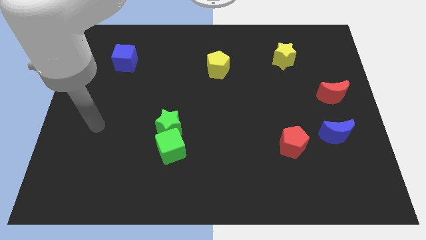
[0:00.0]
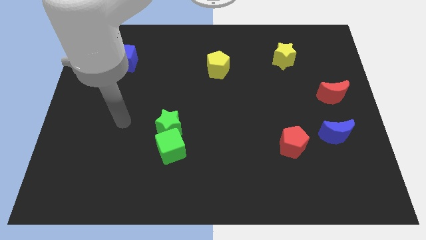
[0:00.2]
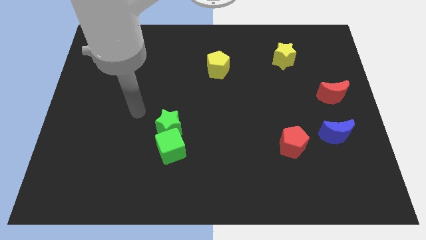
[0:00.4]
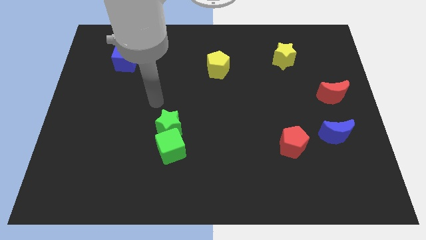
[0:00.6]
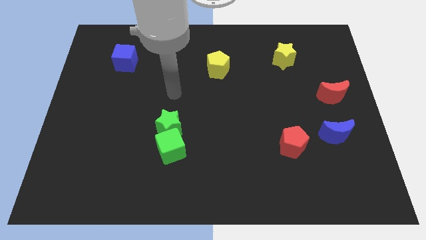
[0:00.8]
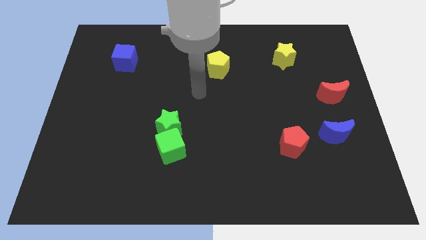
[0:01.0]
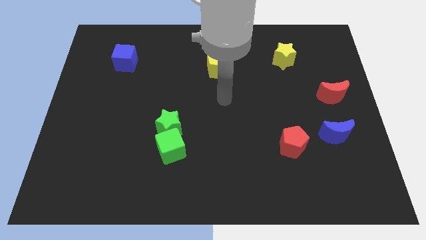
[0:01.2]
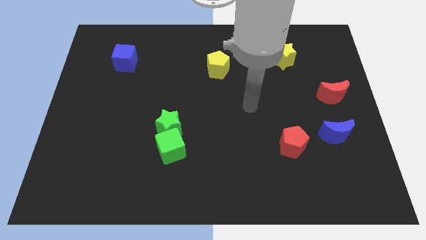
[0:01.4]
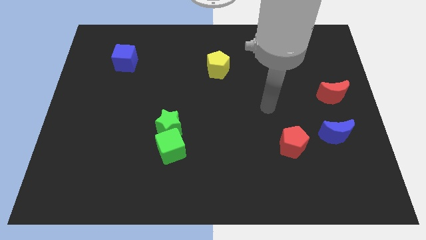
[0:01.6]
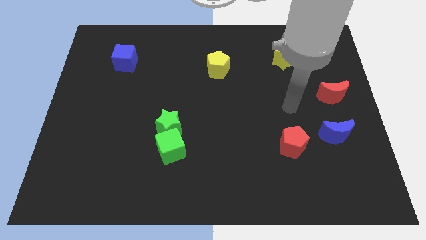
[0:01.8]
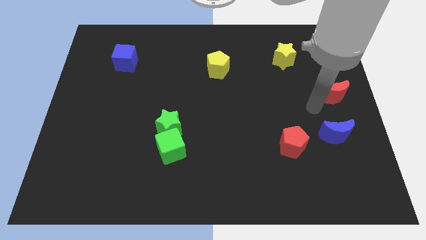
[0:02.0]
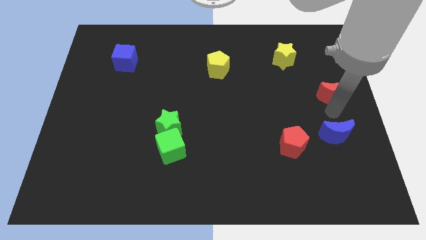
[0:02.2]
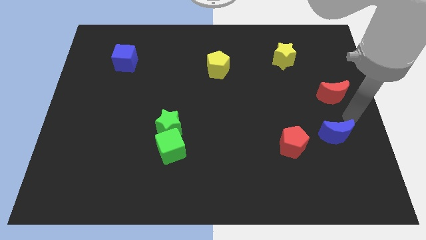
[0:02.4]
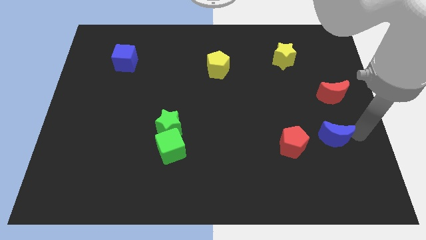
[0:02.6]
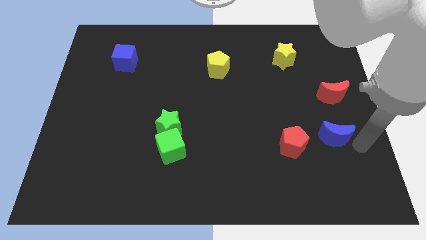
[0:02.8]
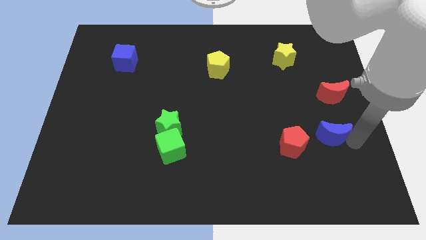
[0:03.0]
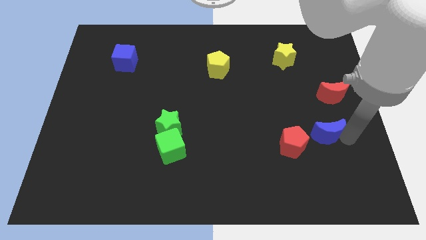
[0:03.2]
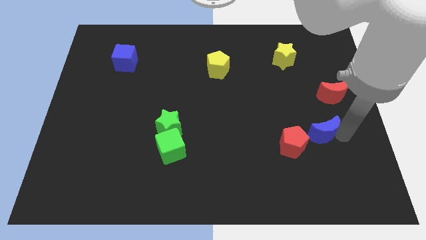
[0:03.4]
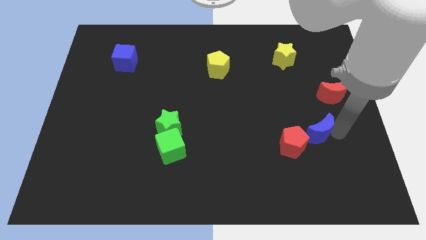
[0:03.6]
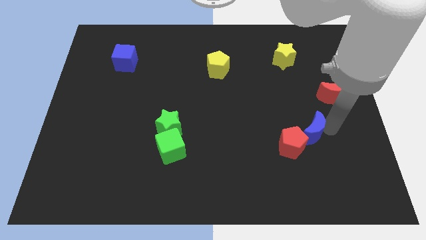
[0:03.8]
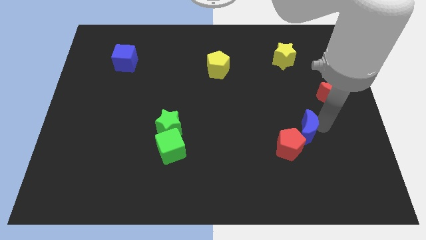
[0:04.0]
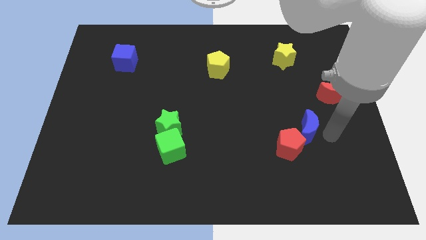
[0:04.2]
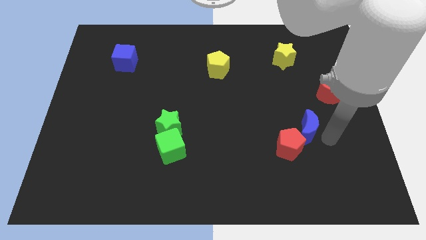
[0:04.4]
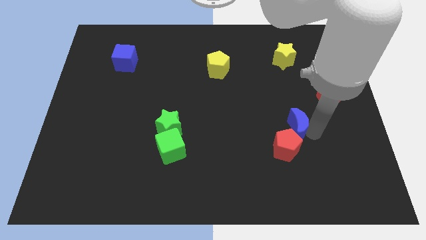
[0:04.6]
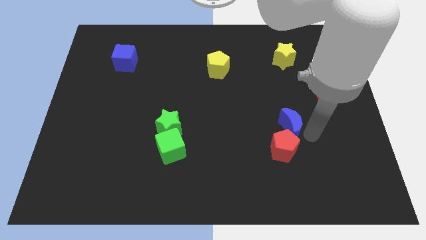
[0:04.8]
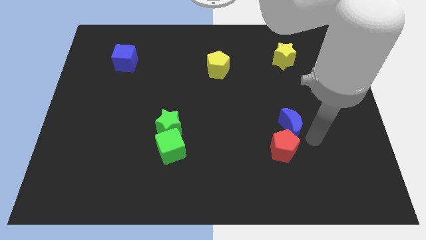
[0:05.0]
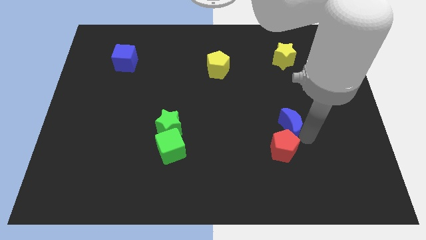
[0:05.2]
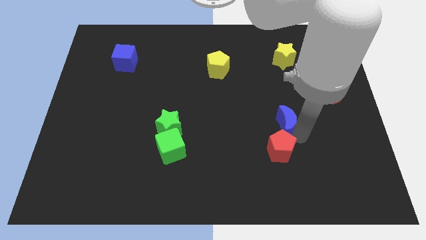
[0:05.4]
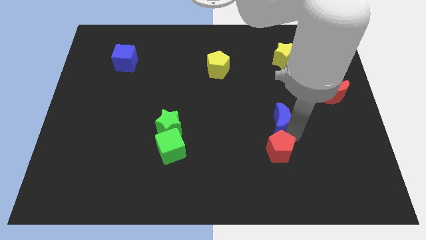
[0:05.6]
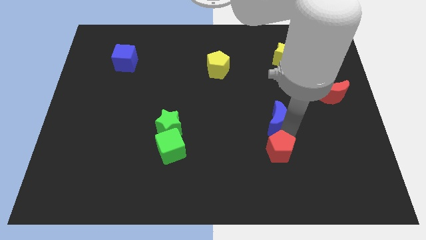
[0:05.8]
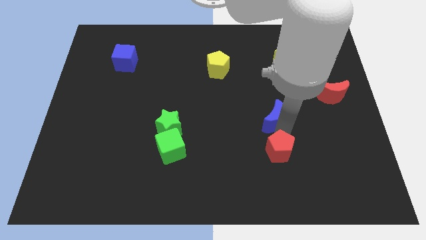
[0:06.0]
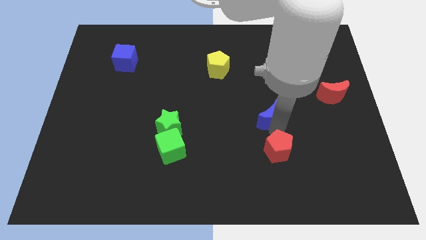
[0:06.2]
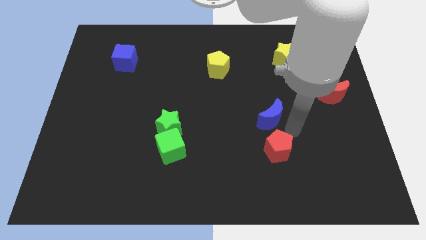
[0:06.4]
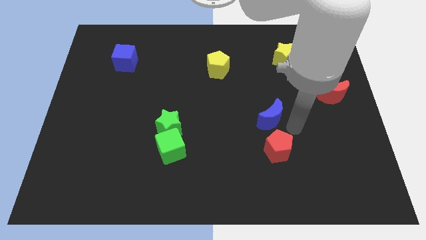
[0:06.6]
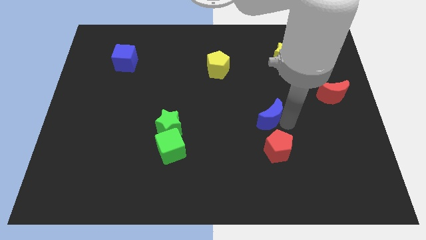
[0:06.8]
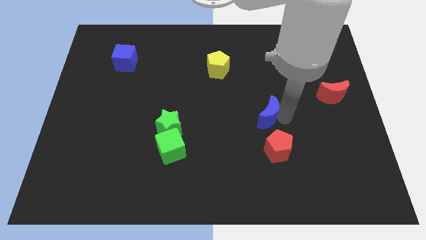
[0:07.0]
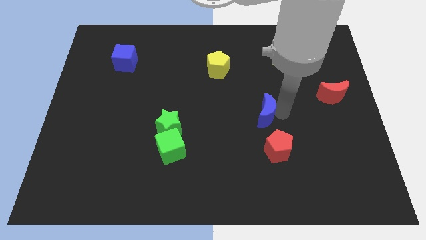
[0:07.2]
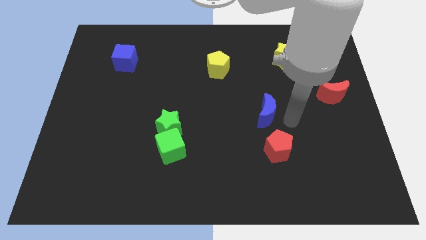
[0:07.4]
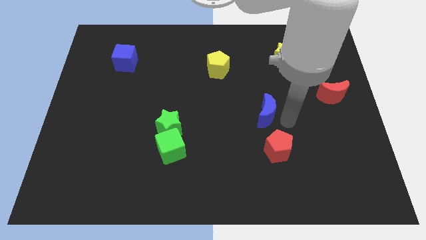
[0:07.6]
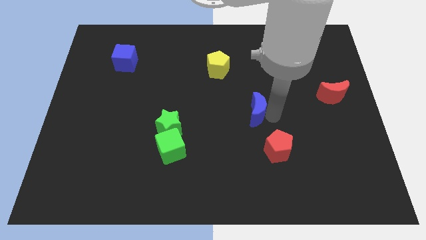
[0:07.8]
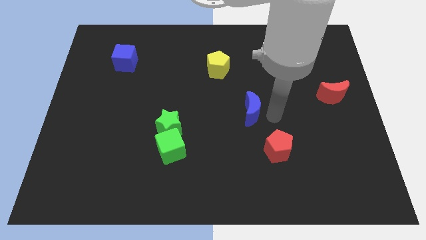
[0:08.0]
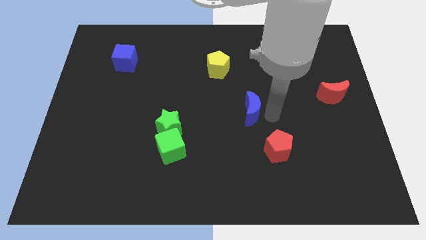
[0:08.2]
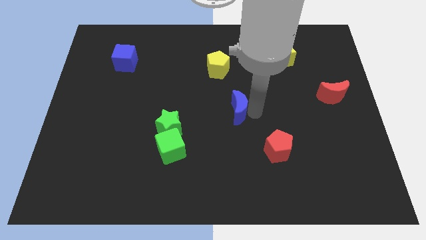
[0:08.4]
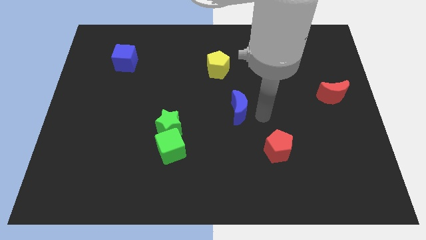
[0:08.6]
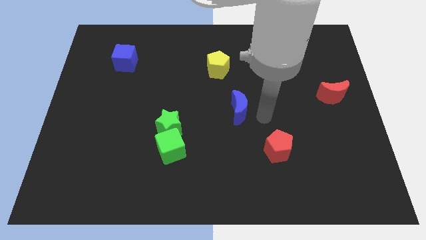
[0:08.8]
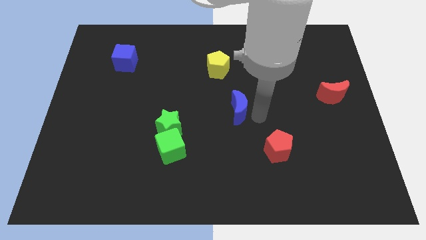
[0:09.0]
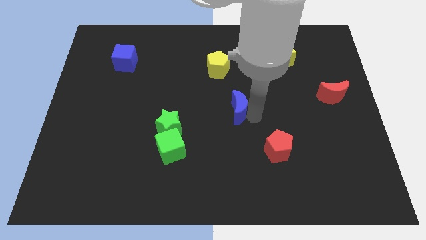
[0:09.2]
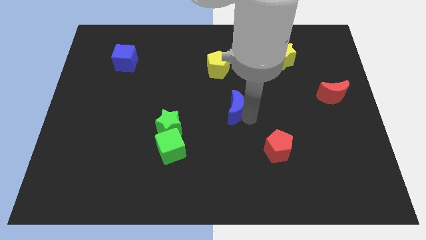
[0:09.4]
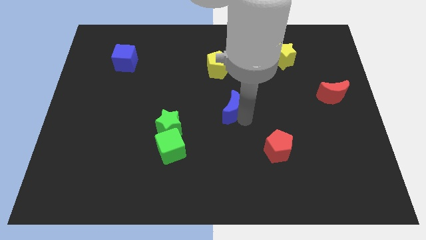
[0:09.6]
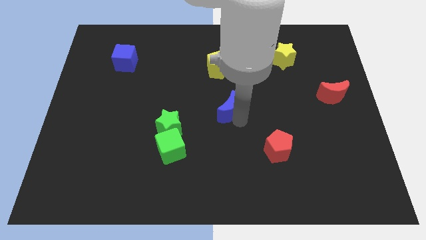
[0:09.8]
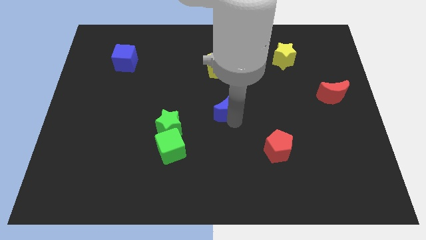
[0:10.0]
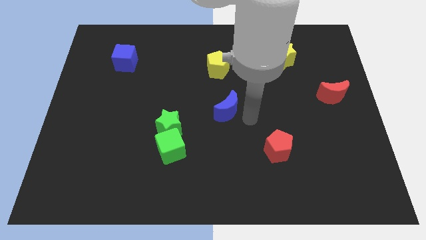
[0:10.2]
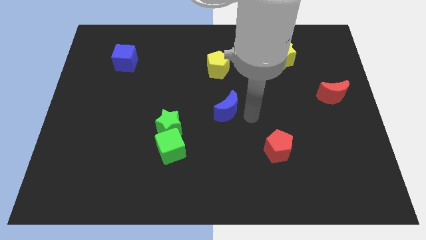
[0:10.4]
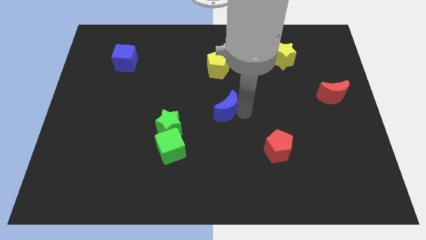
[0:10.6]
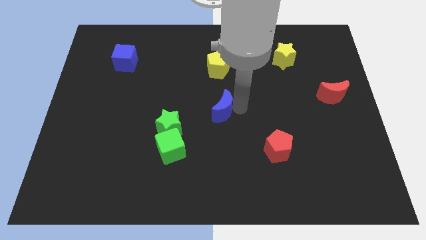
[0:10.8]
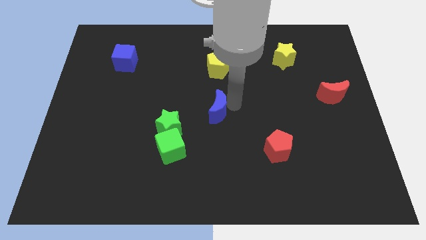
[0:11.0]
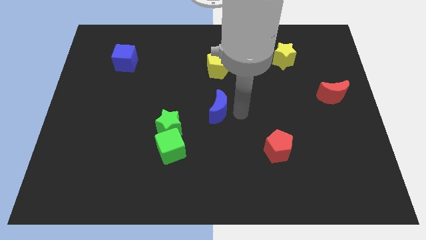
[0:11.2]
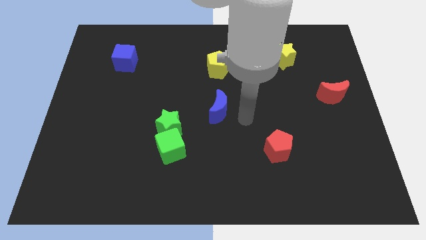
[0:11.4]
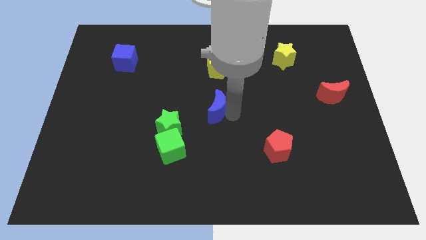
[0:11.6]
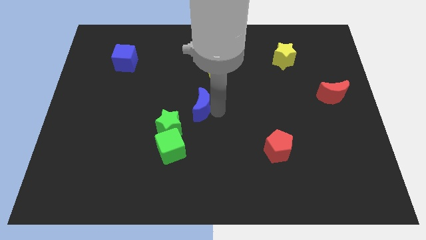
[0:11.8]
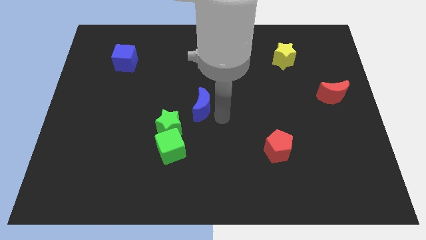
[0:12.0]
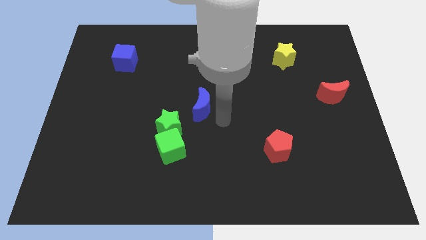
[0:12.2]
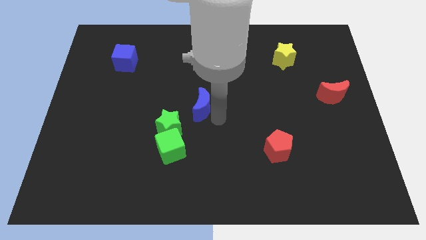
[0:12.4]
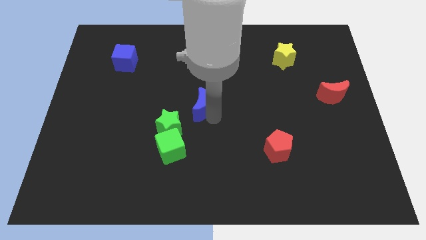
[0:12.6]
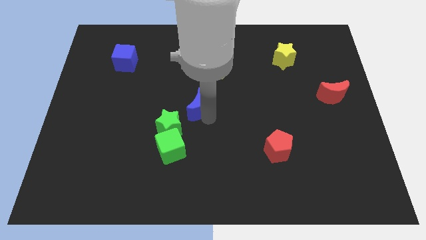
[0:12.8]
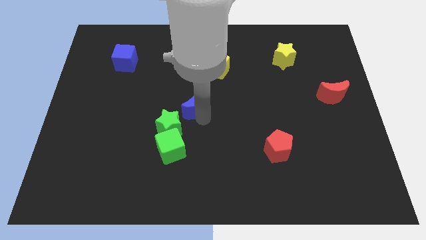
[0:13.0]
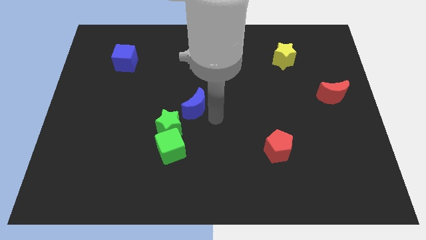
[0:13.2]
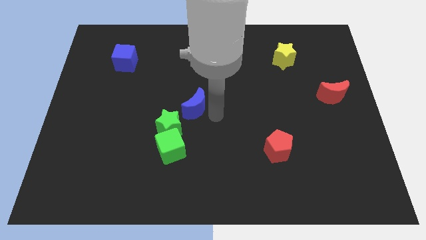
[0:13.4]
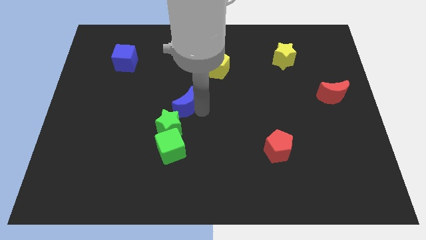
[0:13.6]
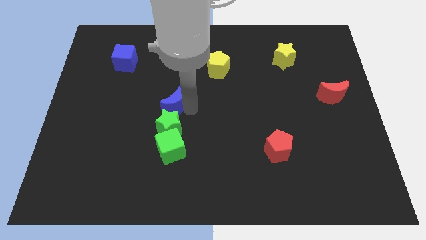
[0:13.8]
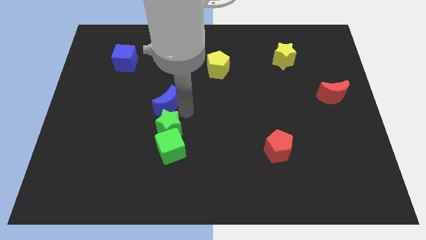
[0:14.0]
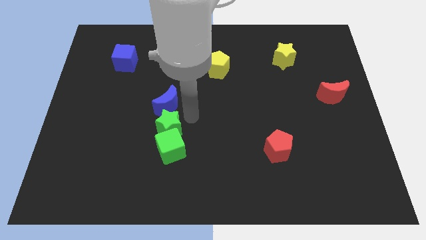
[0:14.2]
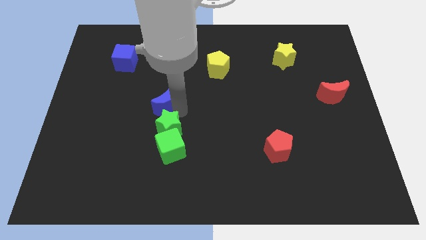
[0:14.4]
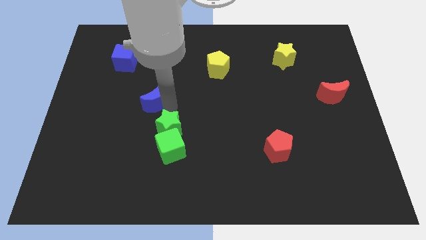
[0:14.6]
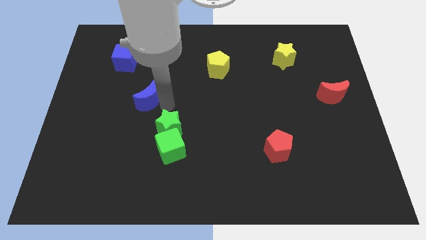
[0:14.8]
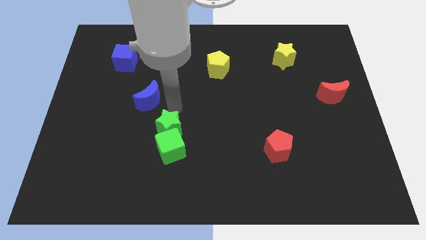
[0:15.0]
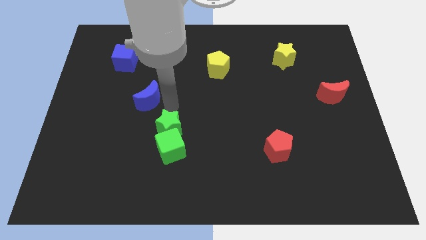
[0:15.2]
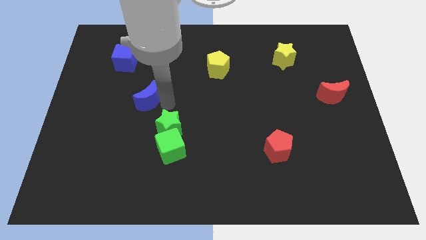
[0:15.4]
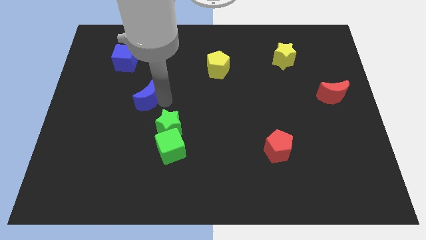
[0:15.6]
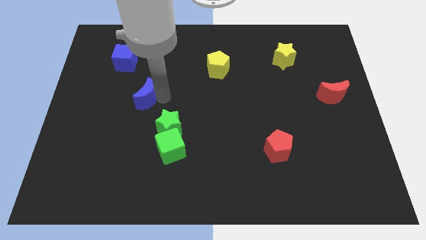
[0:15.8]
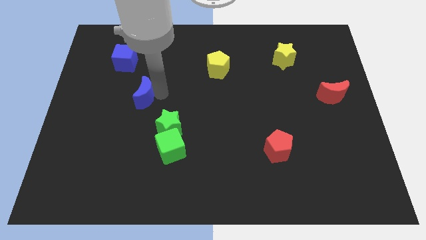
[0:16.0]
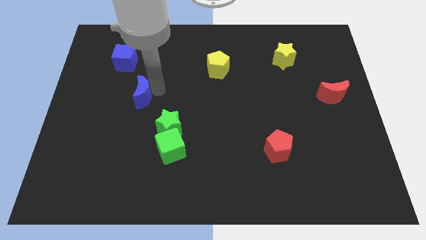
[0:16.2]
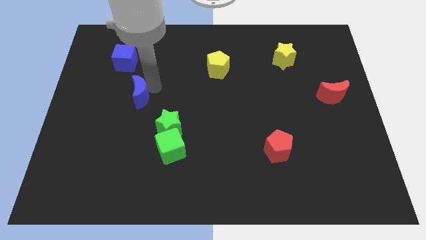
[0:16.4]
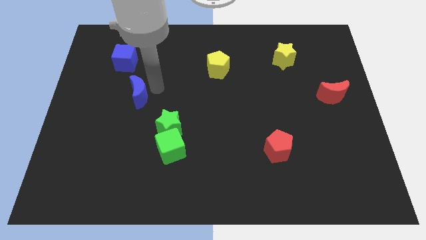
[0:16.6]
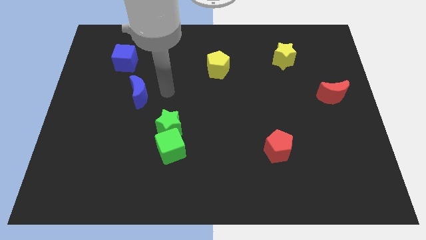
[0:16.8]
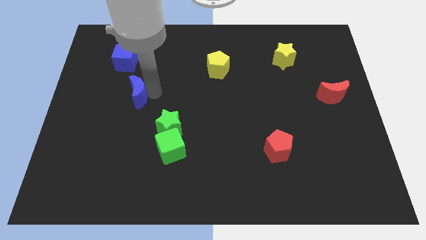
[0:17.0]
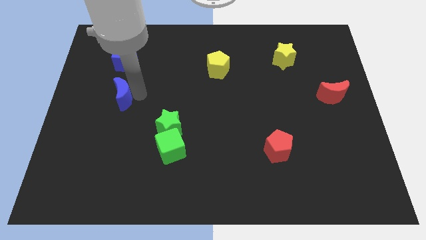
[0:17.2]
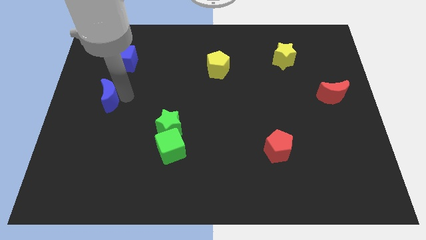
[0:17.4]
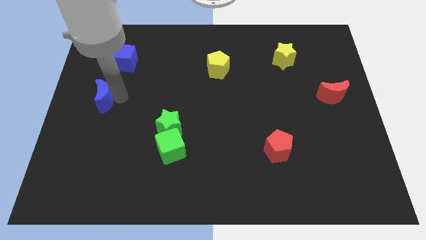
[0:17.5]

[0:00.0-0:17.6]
push the blue moon to the left side
